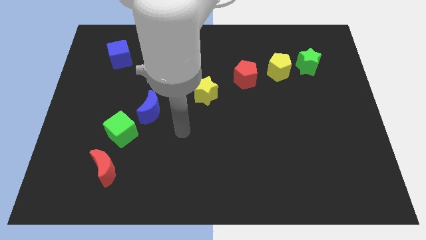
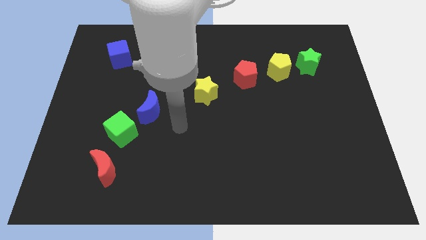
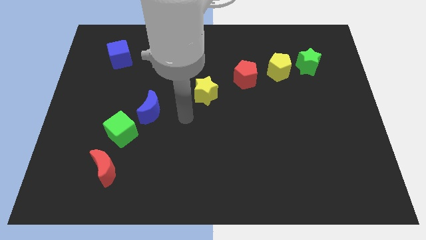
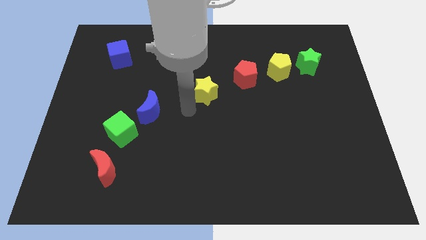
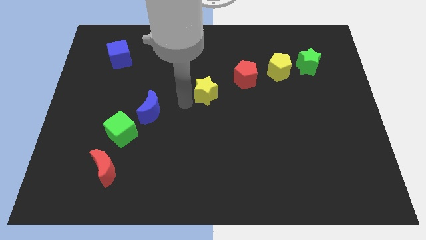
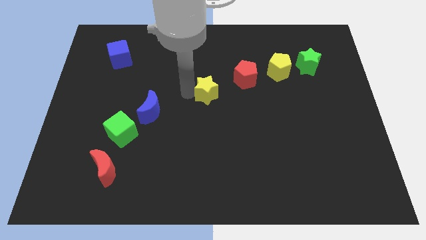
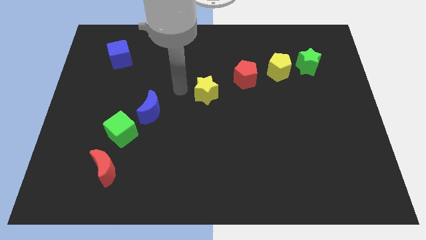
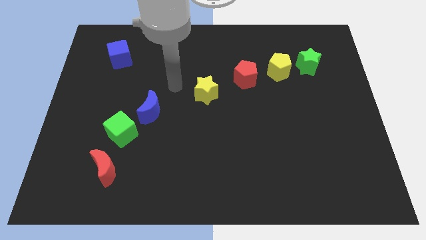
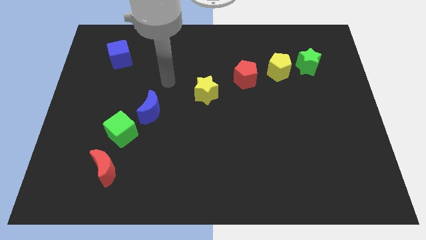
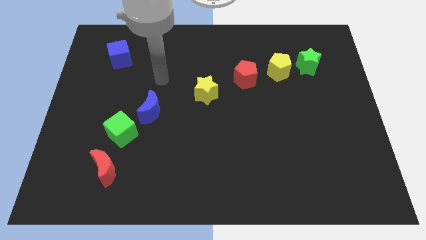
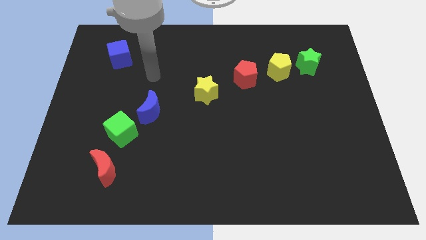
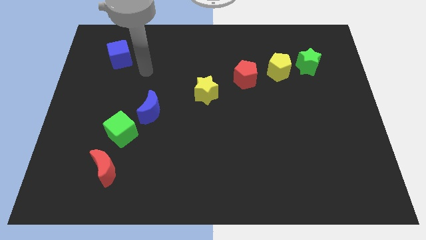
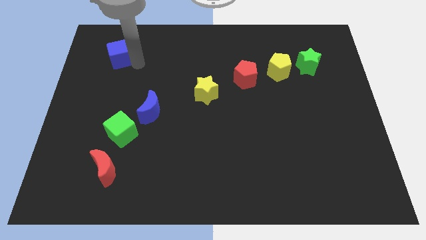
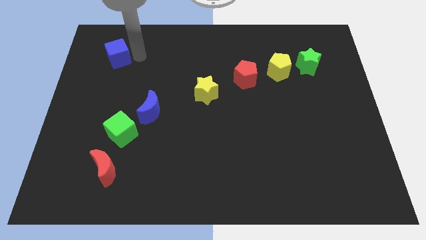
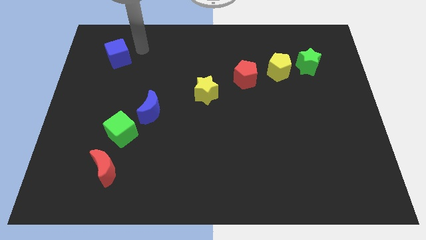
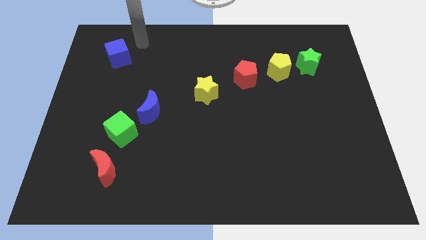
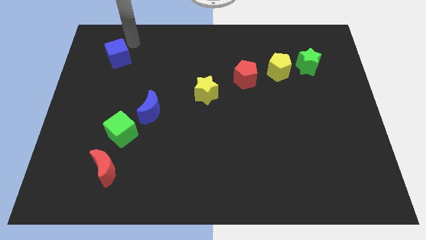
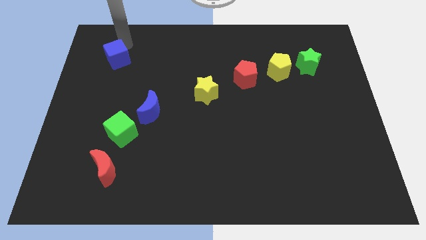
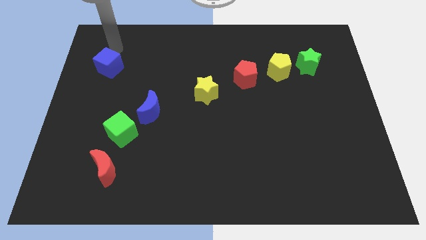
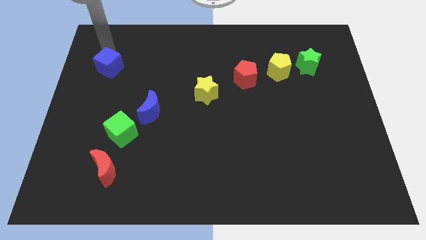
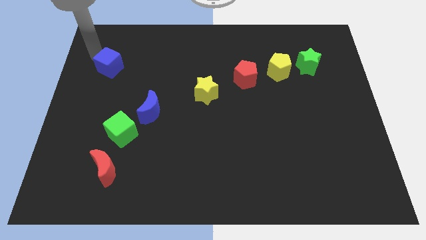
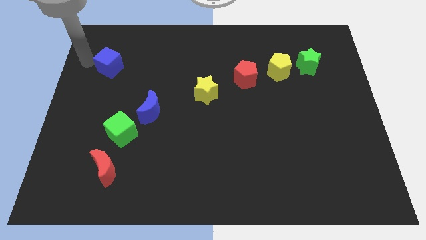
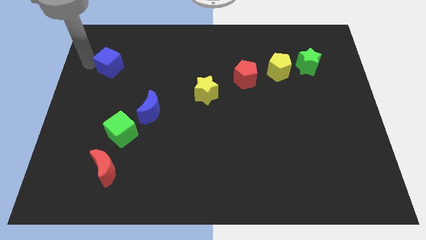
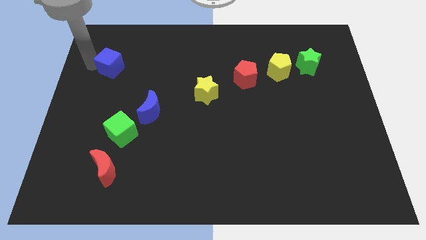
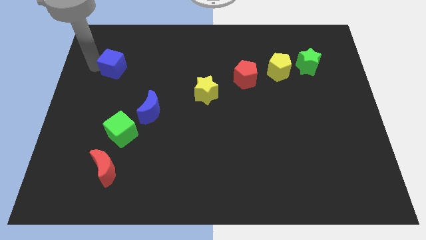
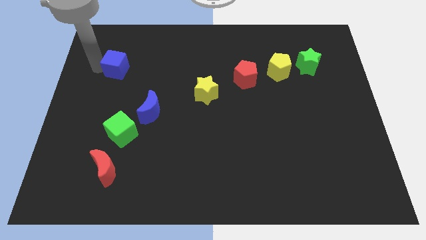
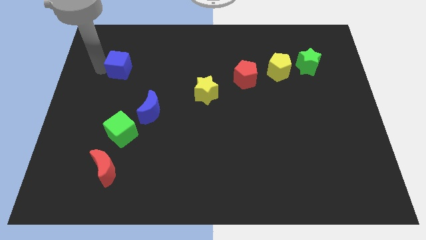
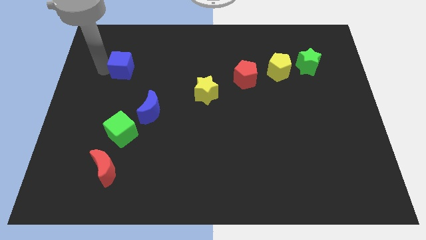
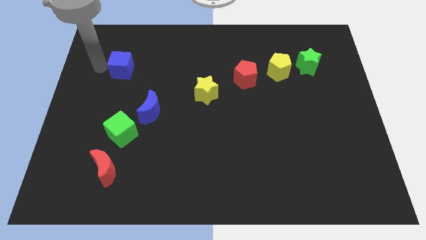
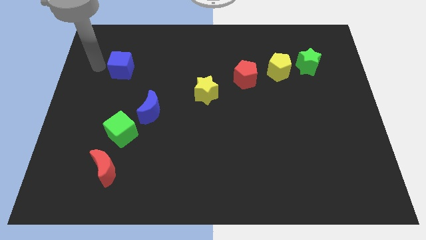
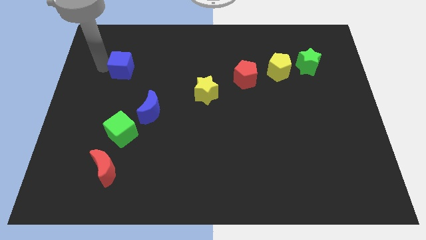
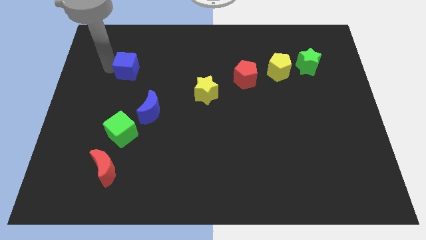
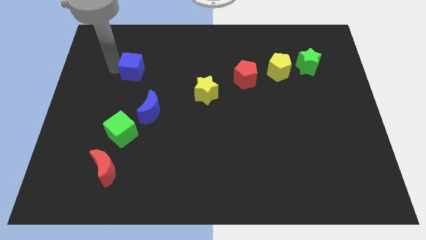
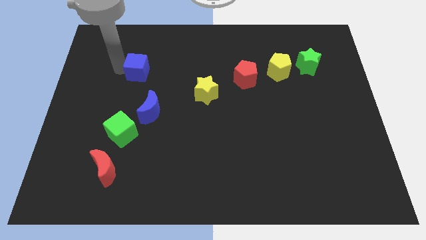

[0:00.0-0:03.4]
slightly slide the blue cube downwards and right diagonally

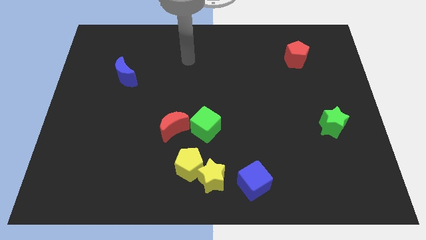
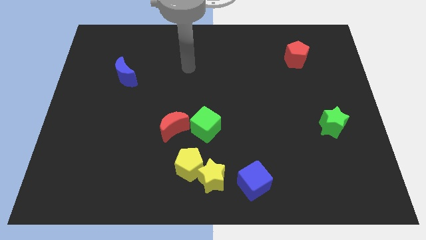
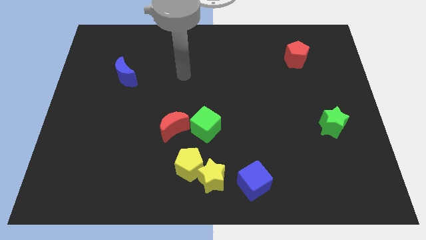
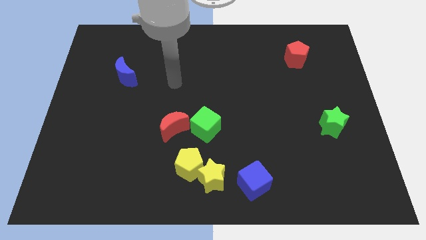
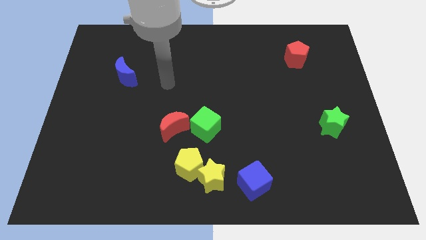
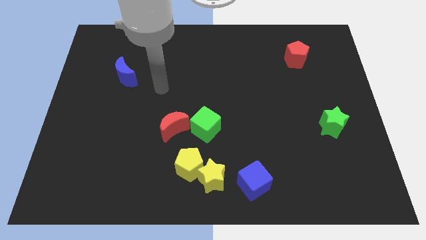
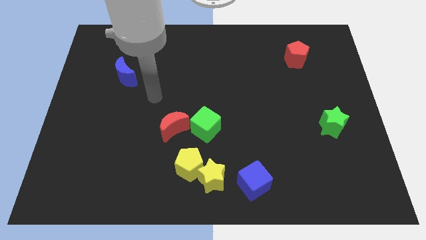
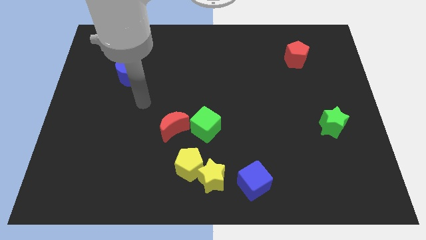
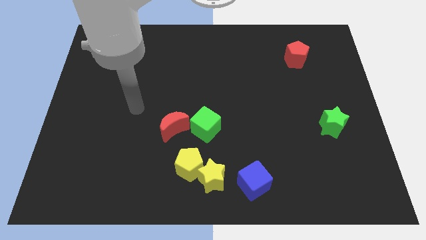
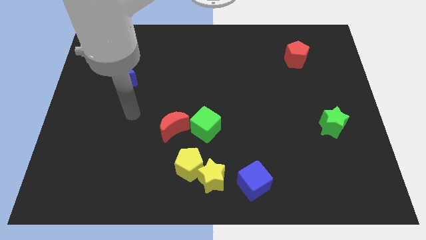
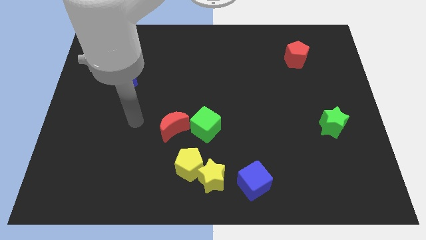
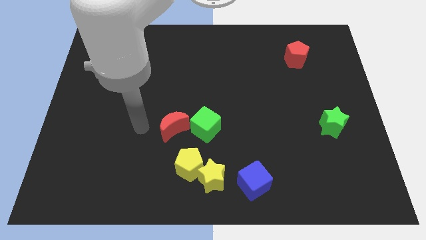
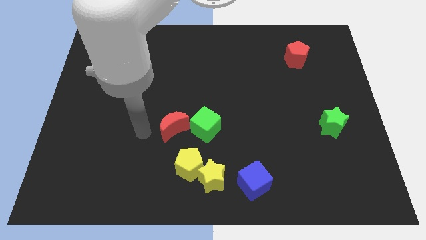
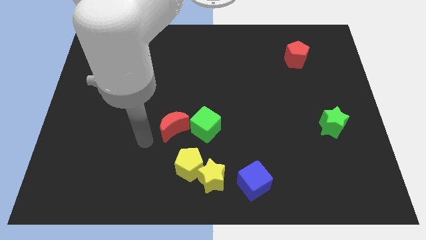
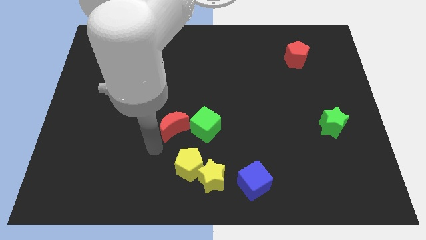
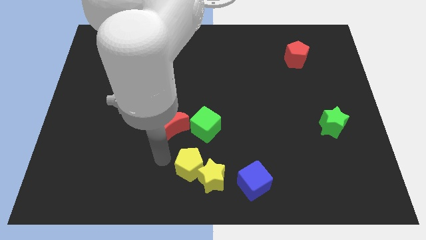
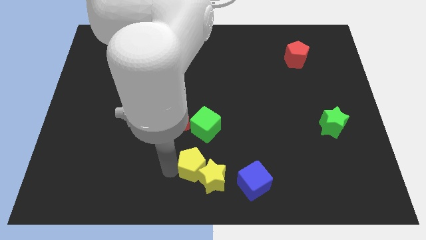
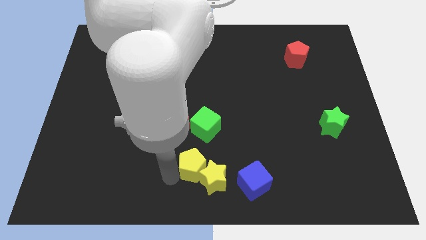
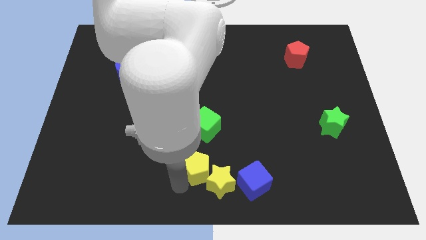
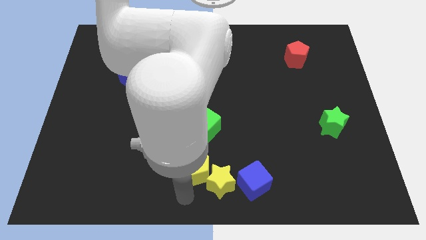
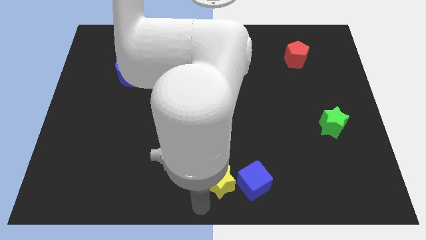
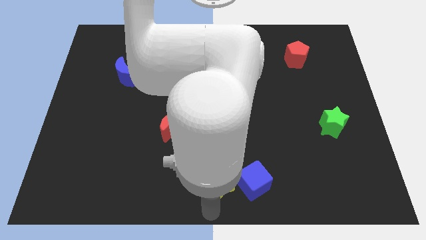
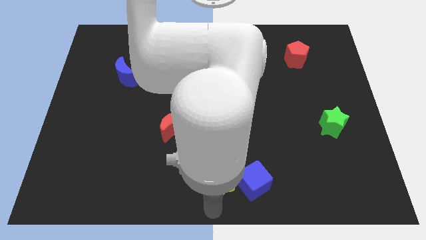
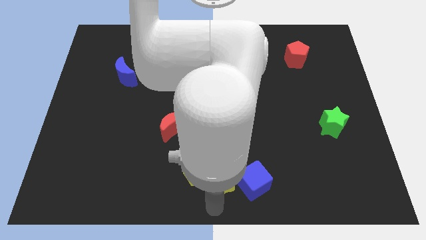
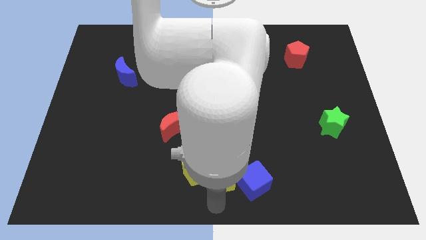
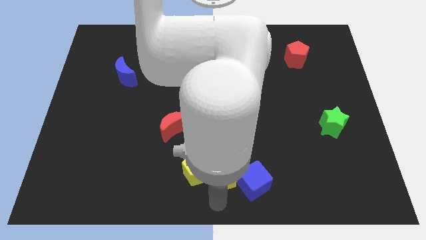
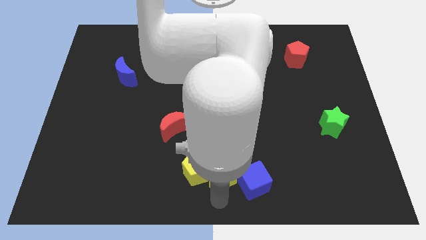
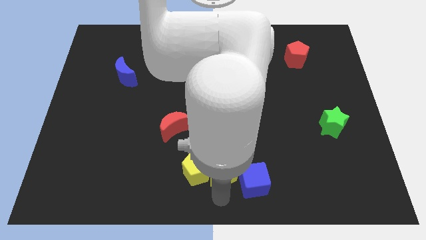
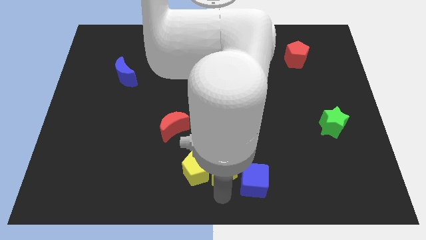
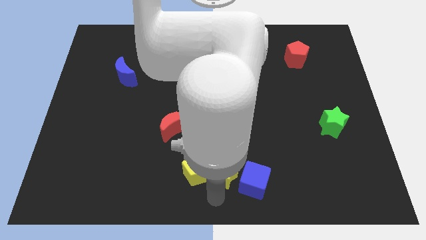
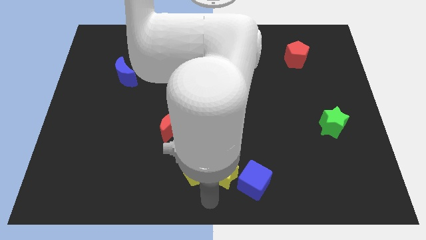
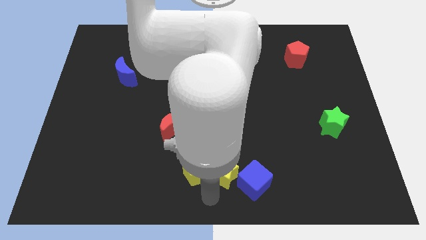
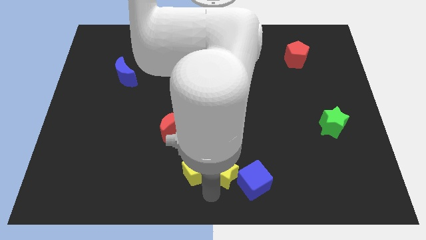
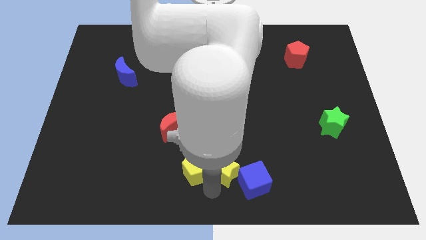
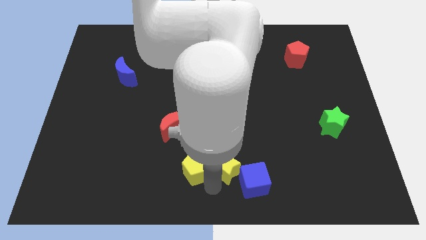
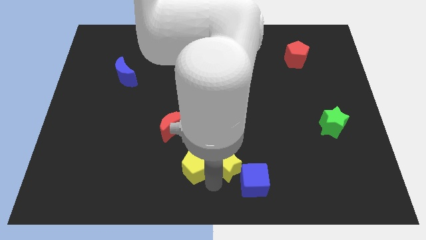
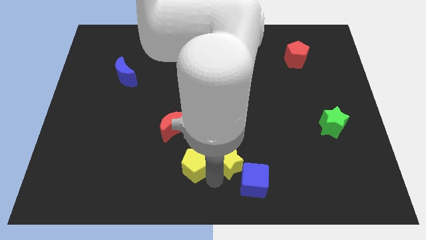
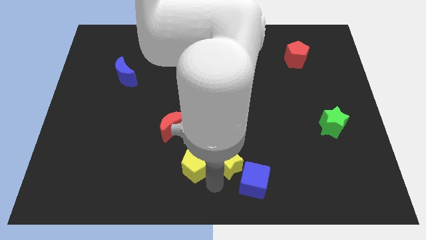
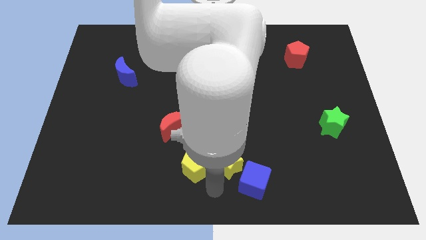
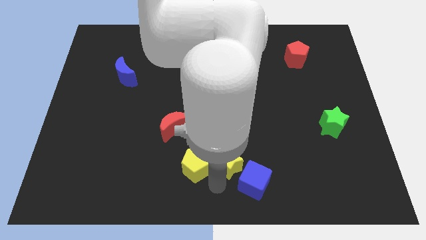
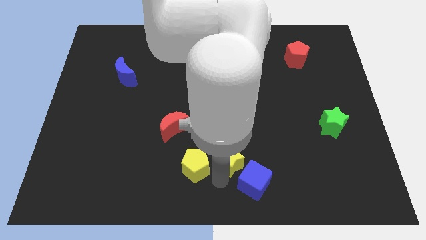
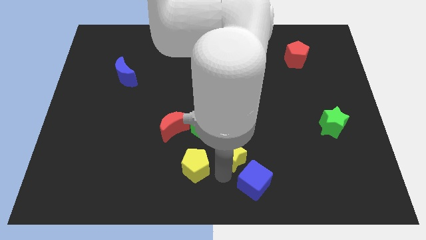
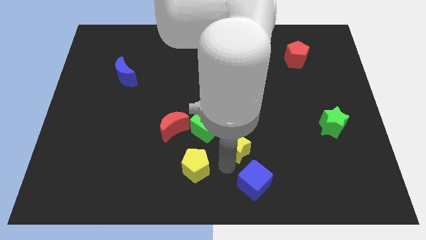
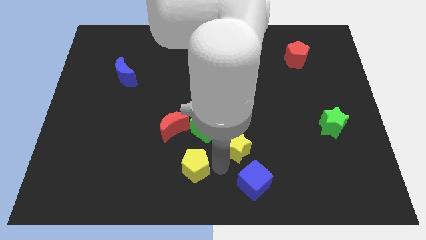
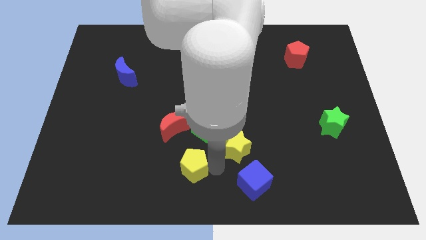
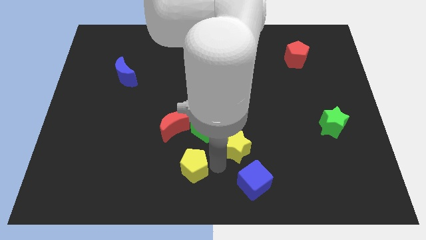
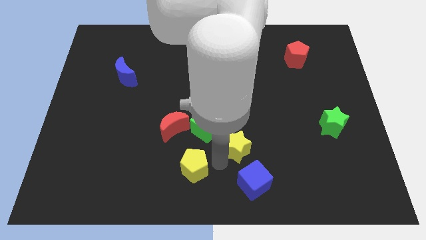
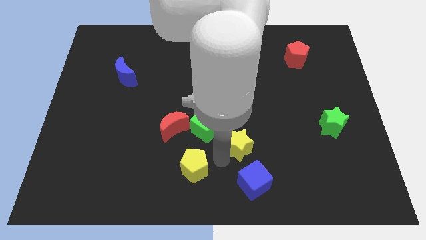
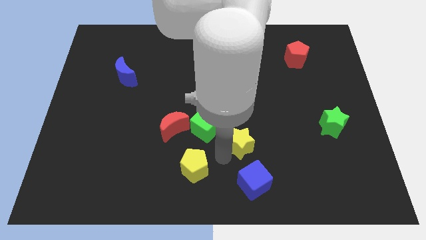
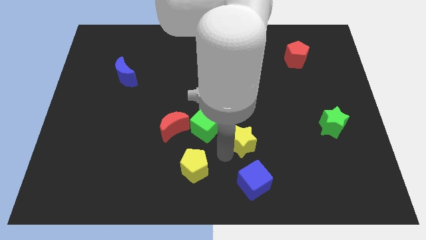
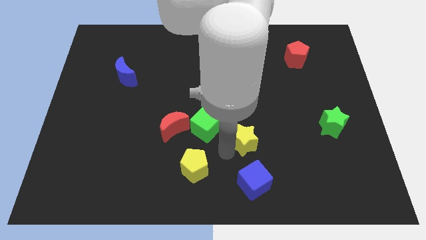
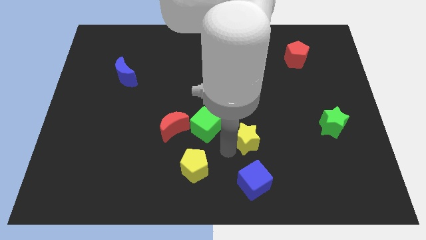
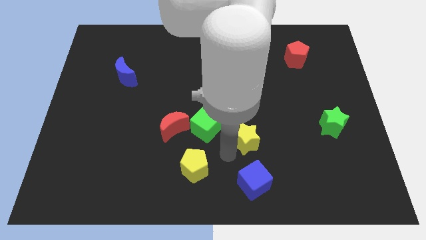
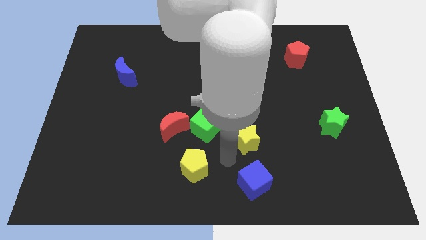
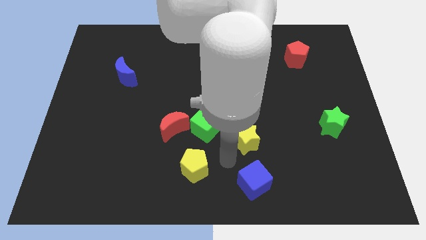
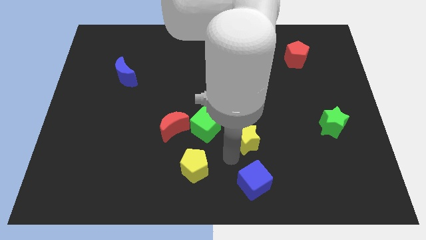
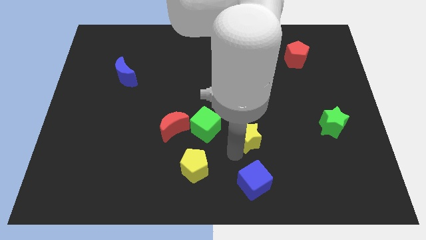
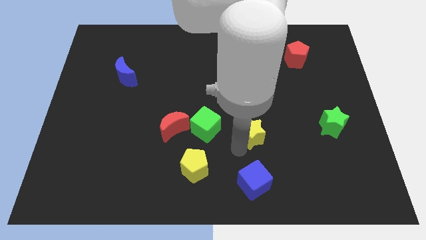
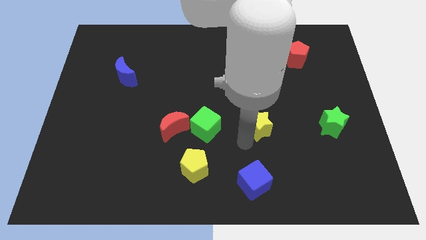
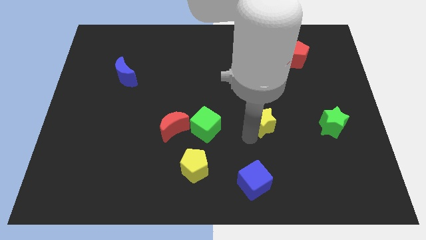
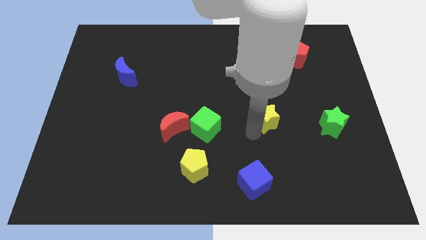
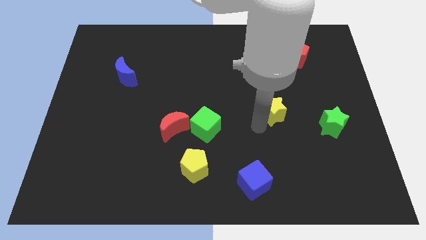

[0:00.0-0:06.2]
slide the yellow star up and to the right
